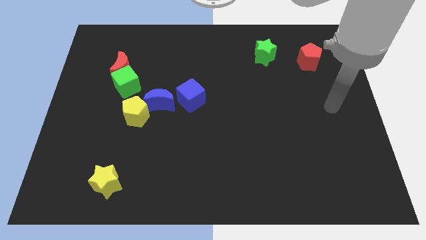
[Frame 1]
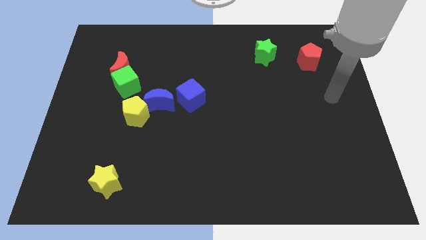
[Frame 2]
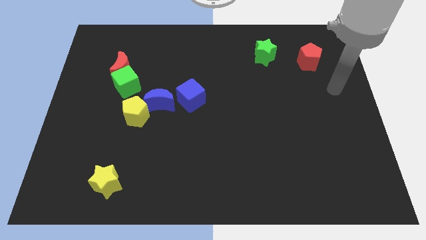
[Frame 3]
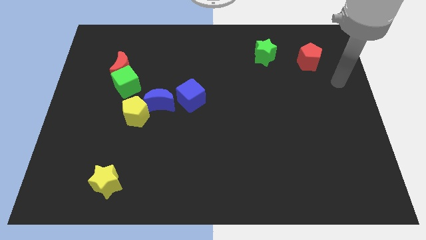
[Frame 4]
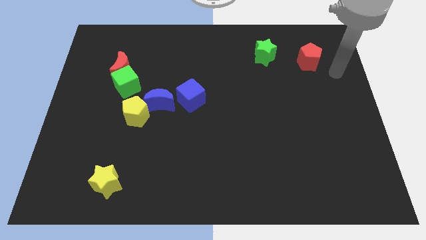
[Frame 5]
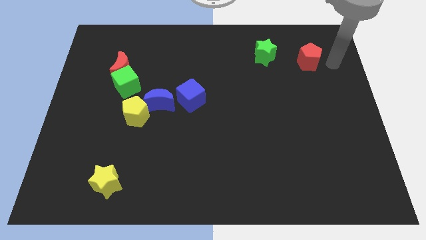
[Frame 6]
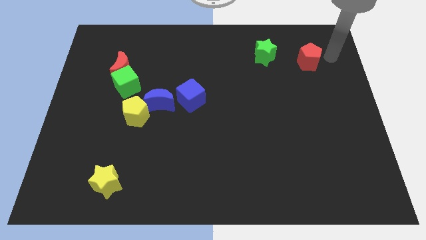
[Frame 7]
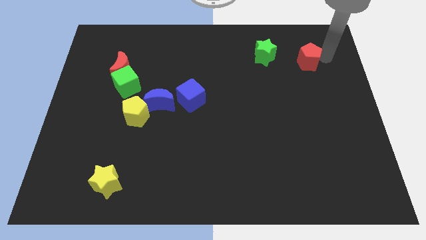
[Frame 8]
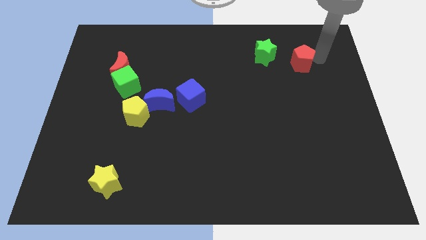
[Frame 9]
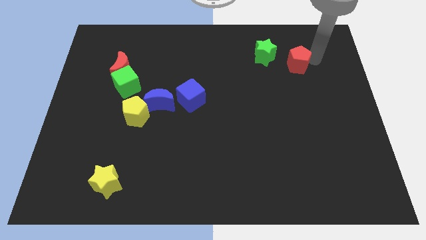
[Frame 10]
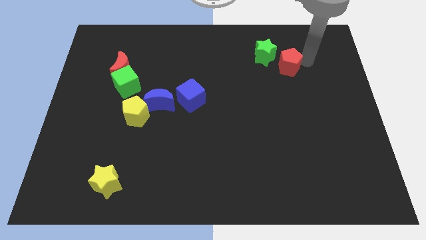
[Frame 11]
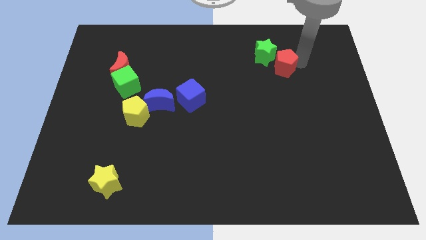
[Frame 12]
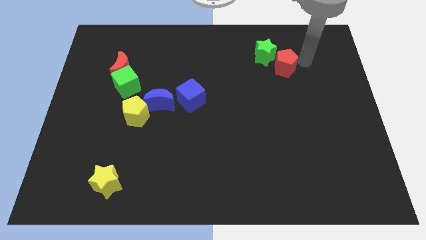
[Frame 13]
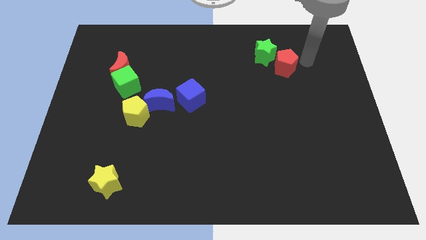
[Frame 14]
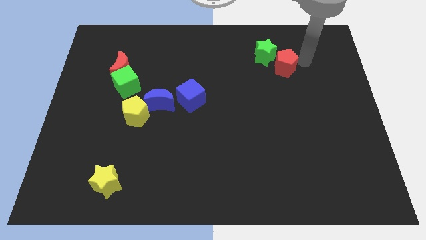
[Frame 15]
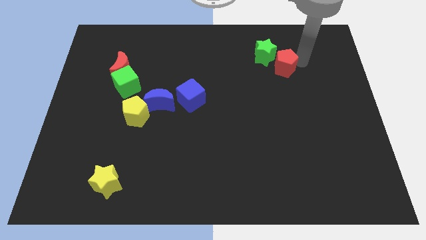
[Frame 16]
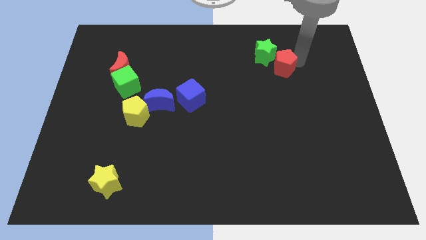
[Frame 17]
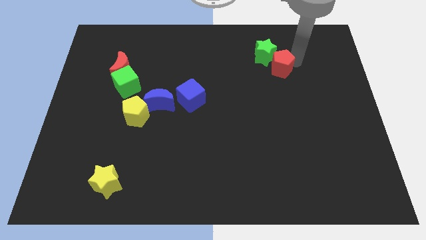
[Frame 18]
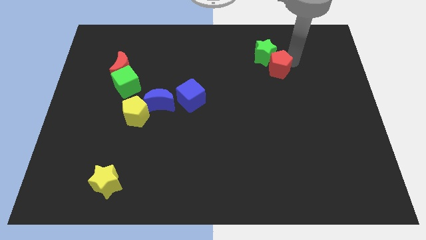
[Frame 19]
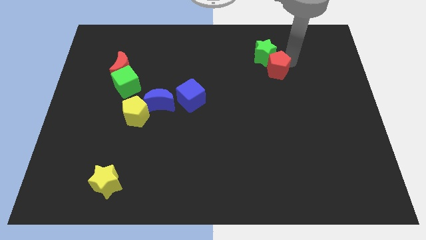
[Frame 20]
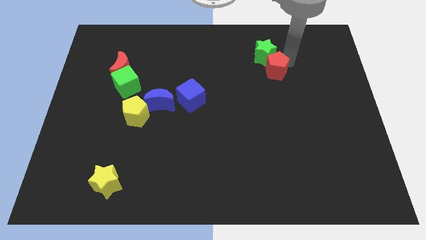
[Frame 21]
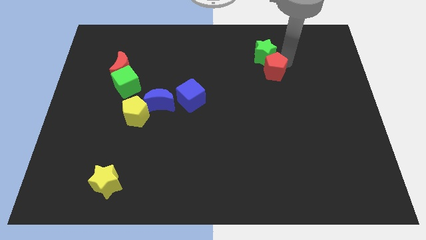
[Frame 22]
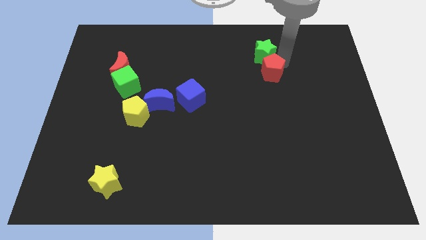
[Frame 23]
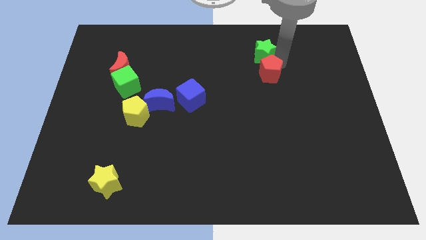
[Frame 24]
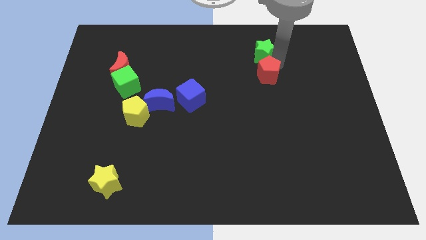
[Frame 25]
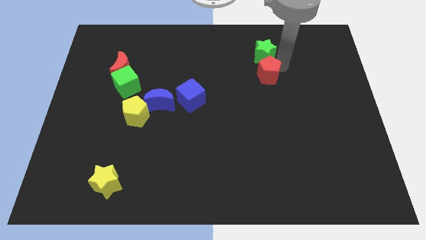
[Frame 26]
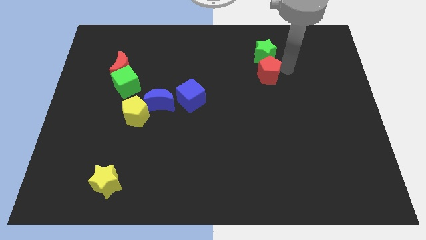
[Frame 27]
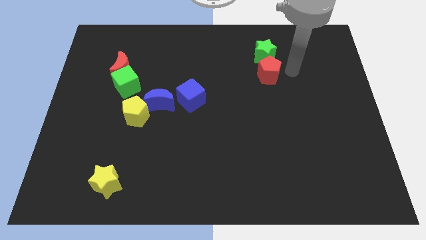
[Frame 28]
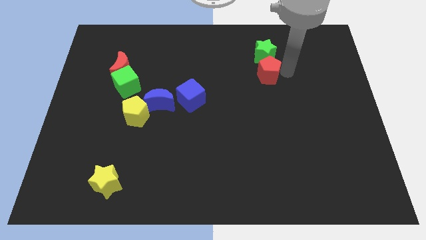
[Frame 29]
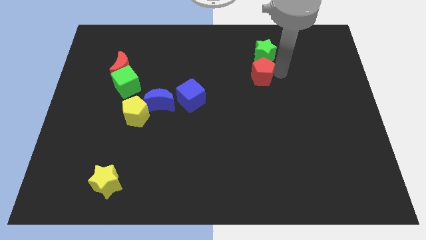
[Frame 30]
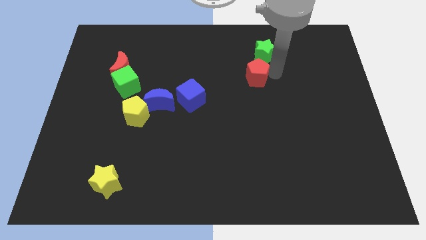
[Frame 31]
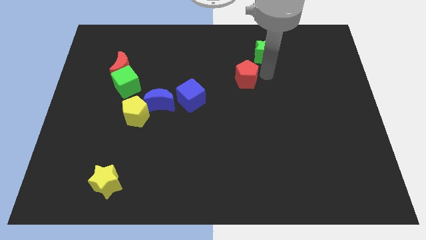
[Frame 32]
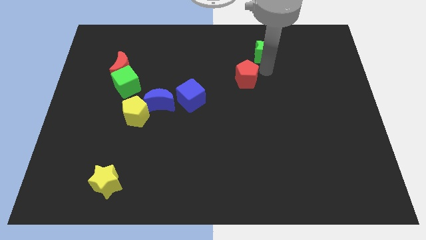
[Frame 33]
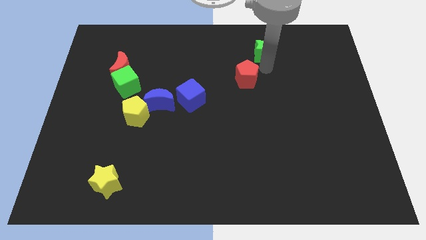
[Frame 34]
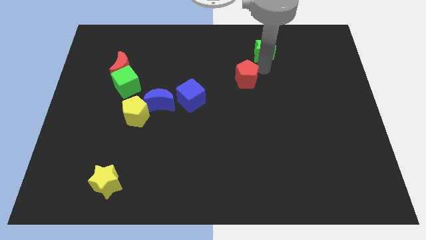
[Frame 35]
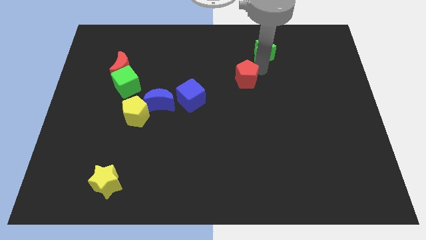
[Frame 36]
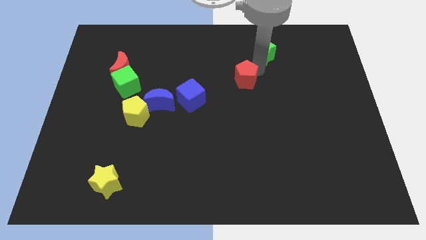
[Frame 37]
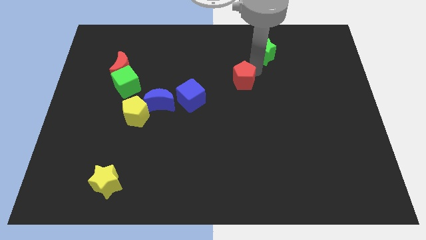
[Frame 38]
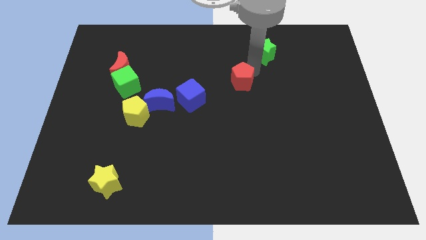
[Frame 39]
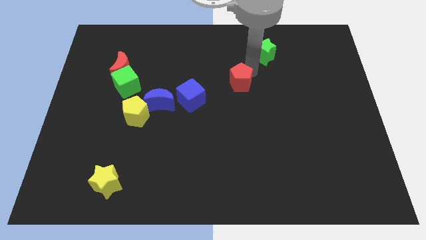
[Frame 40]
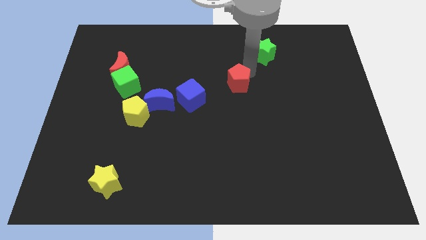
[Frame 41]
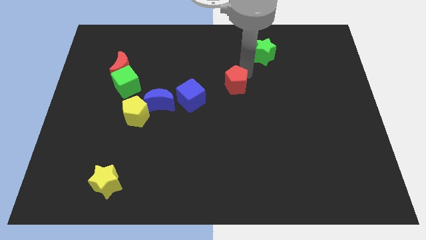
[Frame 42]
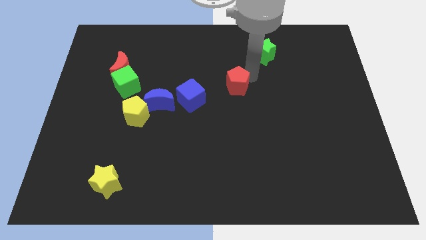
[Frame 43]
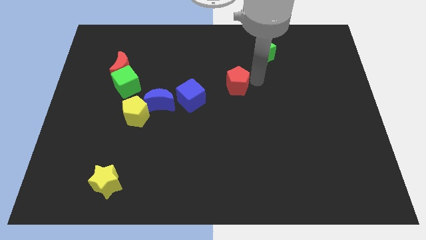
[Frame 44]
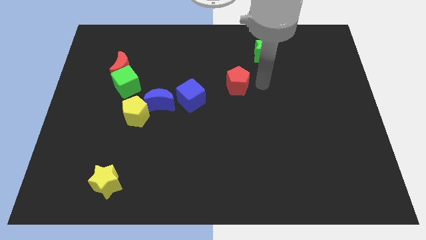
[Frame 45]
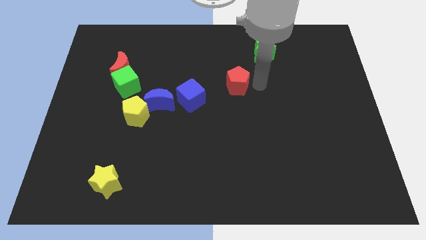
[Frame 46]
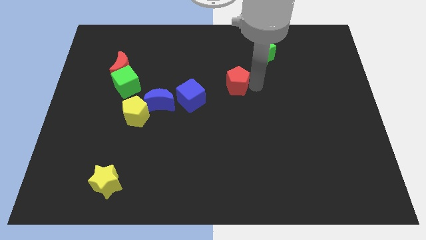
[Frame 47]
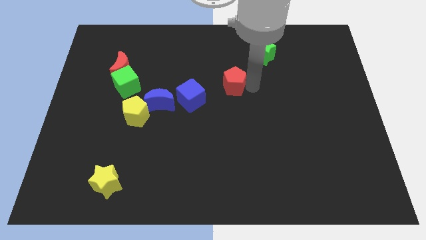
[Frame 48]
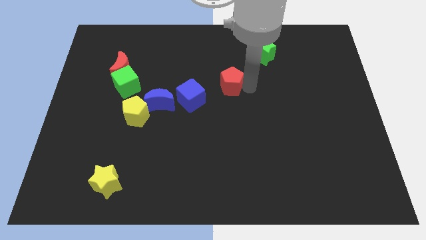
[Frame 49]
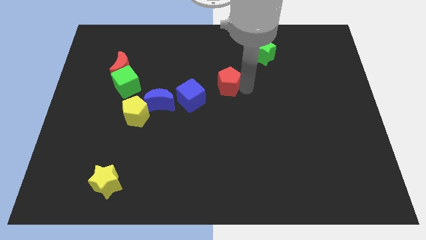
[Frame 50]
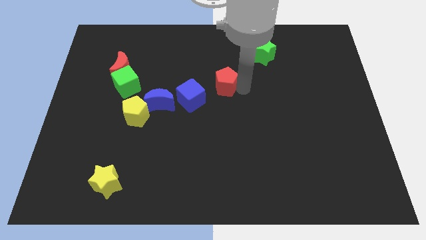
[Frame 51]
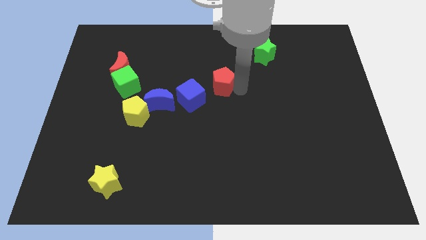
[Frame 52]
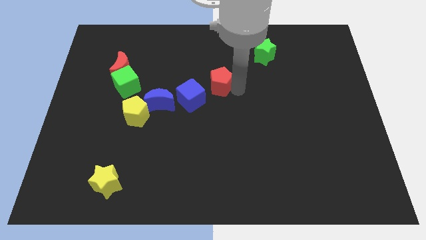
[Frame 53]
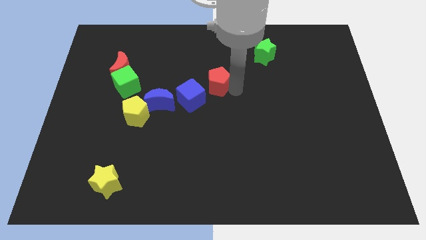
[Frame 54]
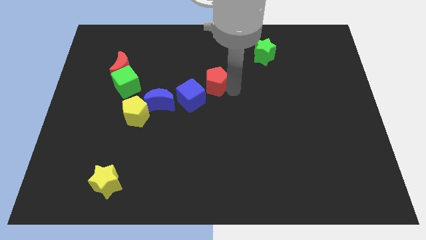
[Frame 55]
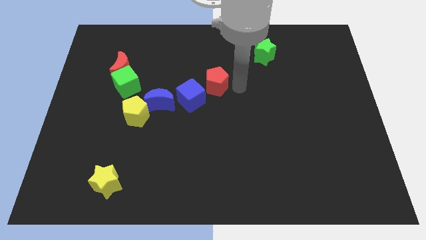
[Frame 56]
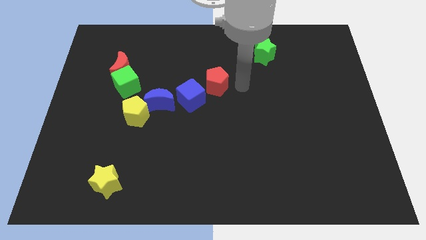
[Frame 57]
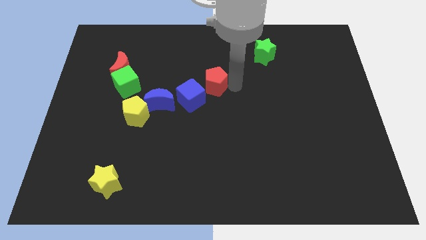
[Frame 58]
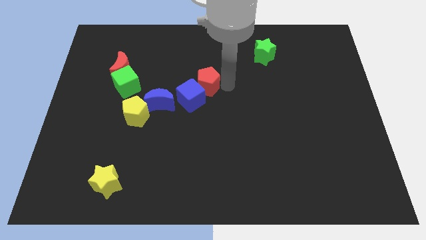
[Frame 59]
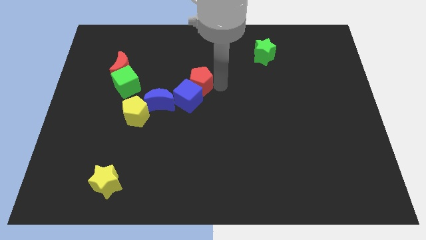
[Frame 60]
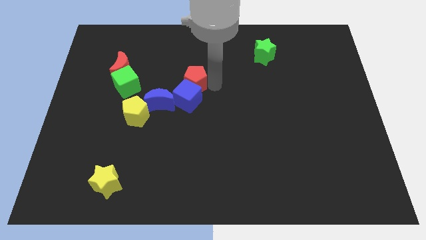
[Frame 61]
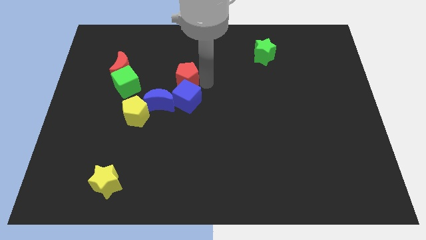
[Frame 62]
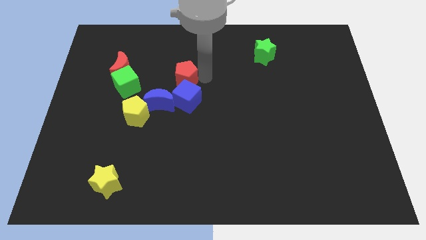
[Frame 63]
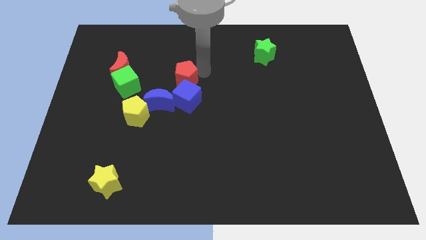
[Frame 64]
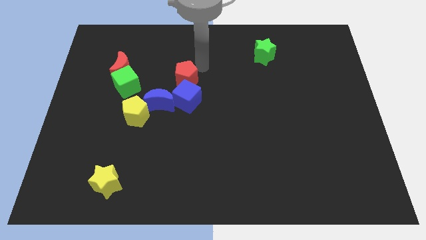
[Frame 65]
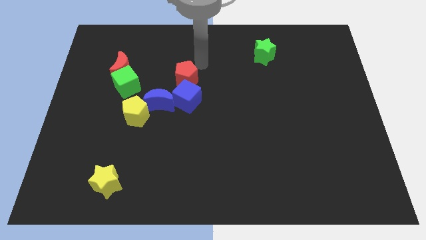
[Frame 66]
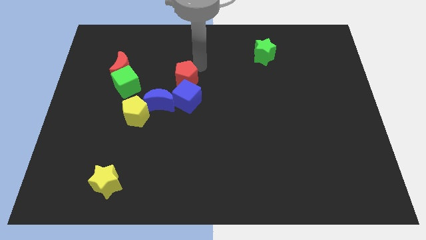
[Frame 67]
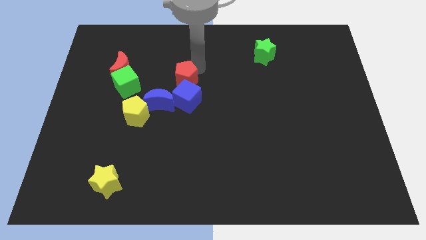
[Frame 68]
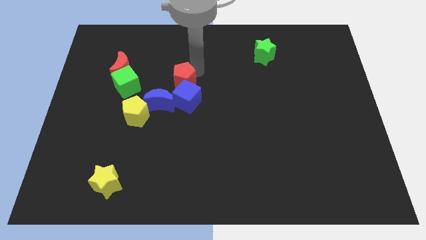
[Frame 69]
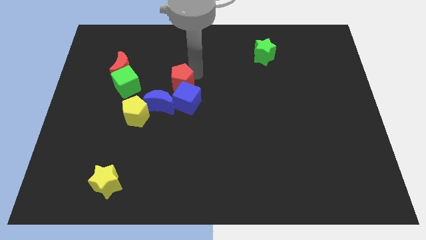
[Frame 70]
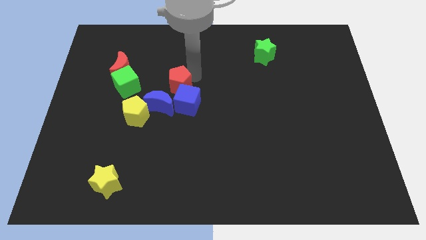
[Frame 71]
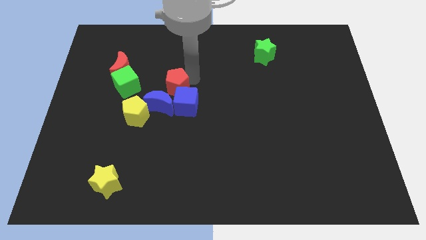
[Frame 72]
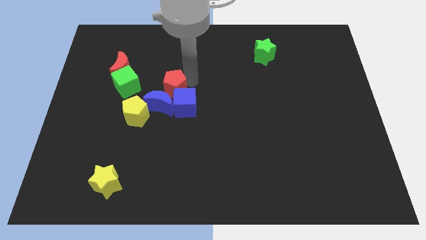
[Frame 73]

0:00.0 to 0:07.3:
push the red pentagon towards the blue moon
